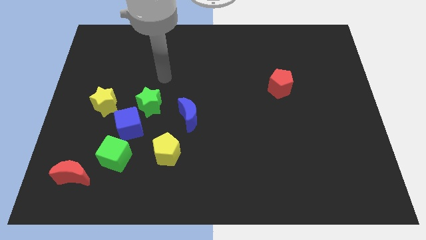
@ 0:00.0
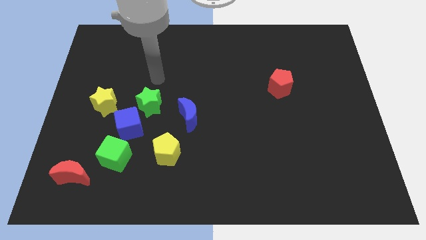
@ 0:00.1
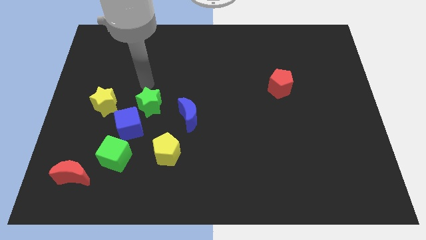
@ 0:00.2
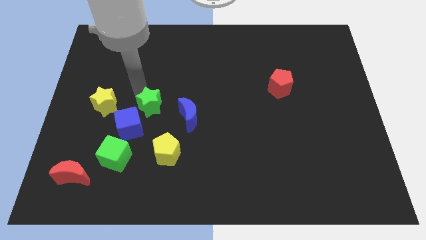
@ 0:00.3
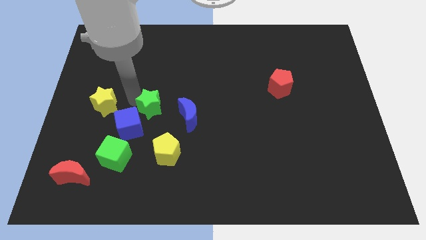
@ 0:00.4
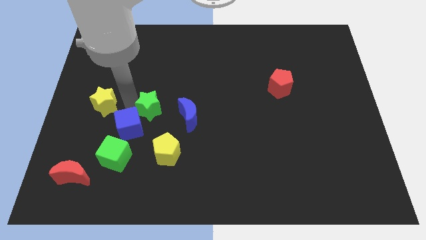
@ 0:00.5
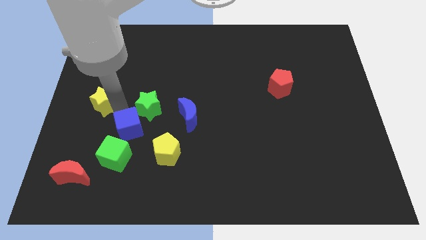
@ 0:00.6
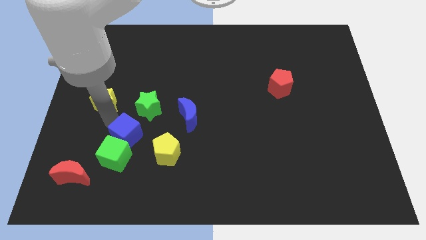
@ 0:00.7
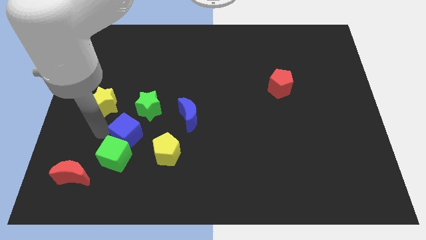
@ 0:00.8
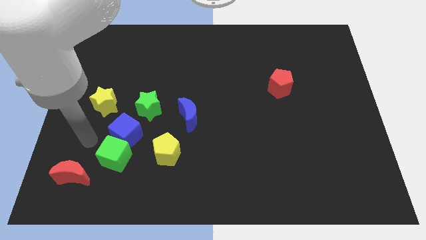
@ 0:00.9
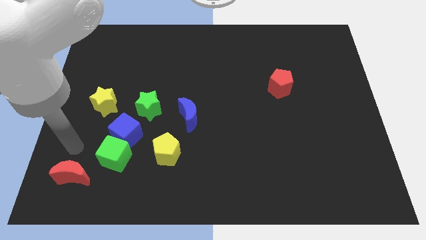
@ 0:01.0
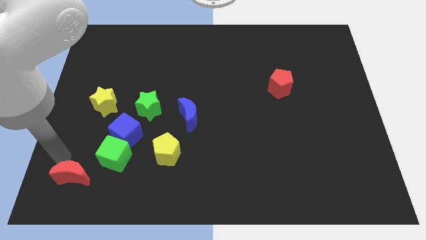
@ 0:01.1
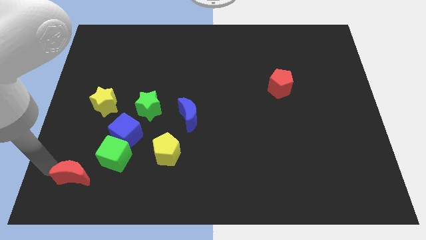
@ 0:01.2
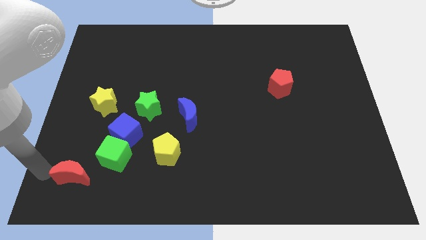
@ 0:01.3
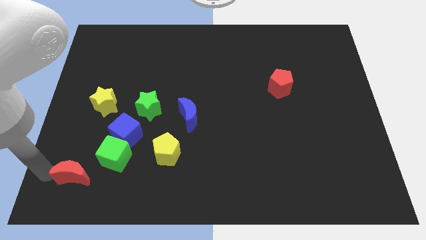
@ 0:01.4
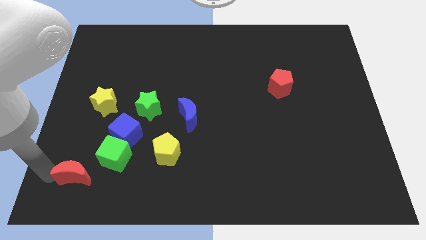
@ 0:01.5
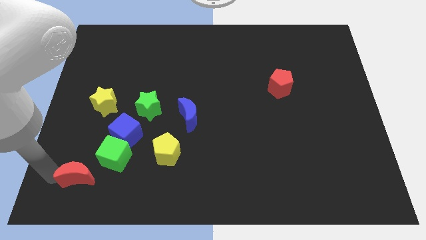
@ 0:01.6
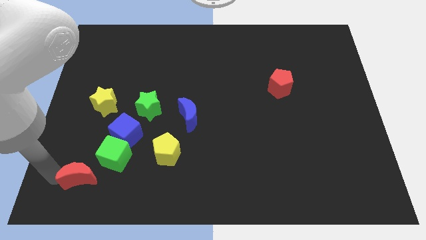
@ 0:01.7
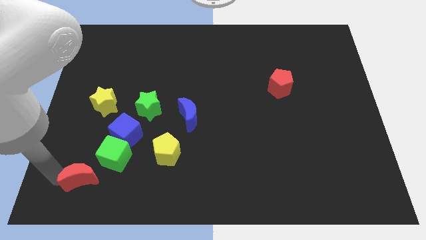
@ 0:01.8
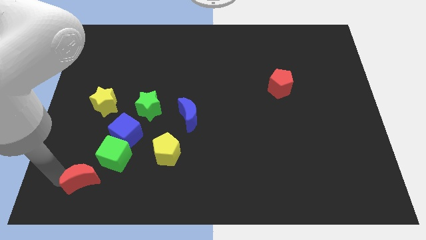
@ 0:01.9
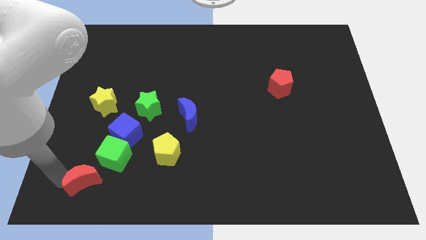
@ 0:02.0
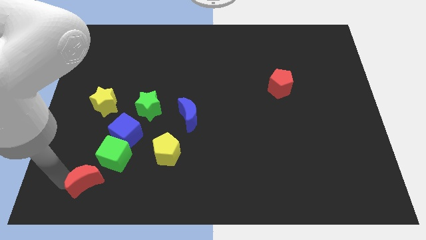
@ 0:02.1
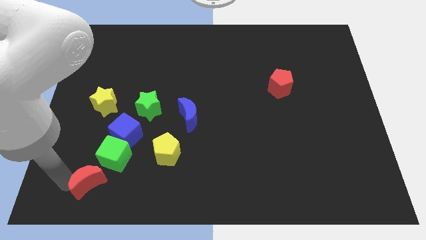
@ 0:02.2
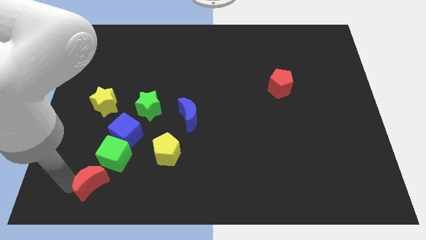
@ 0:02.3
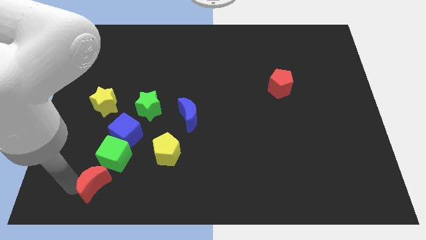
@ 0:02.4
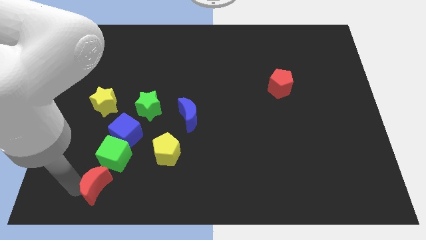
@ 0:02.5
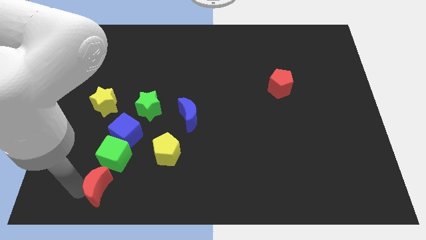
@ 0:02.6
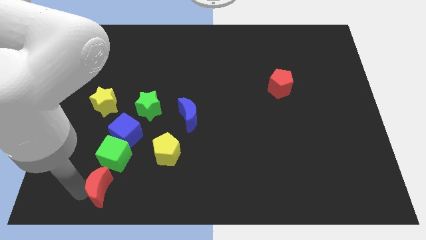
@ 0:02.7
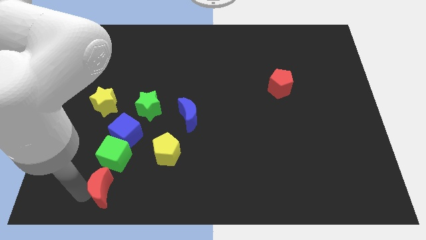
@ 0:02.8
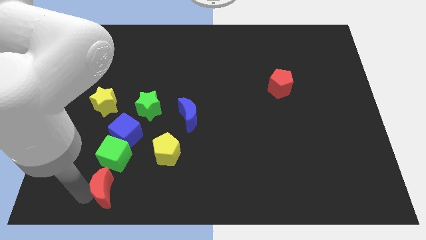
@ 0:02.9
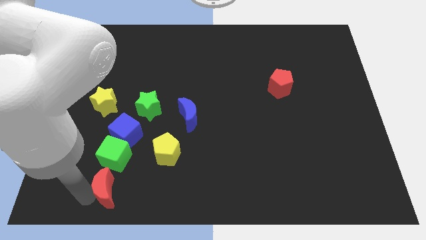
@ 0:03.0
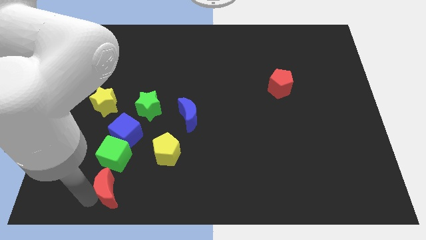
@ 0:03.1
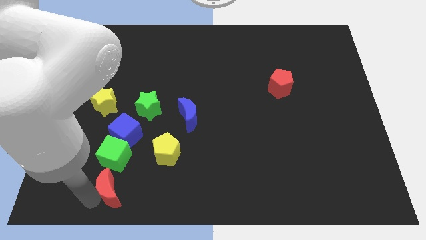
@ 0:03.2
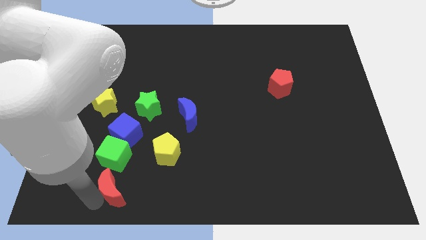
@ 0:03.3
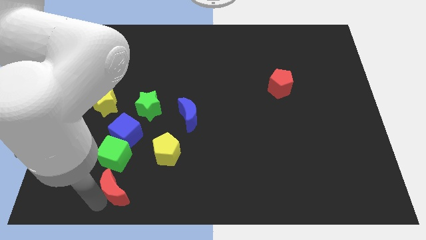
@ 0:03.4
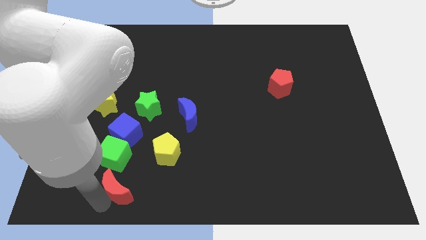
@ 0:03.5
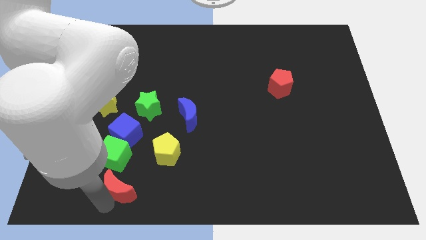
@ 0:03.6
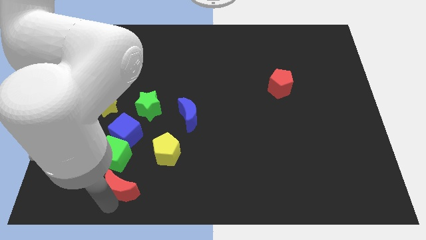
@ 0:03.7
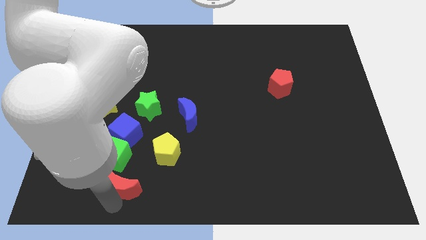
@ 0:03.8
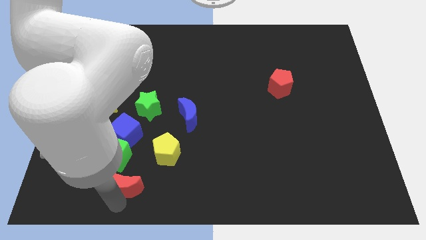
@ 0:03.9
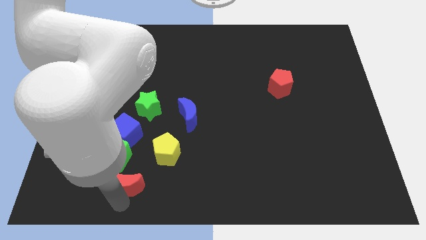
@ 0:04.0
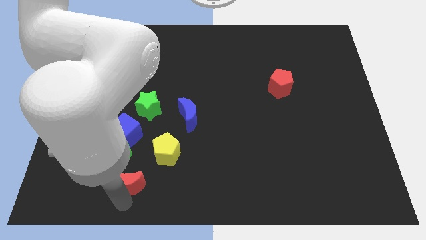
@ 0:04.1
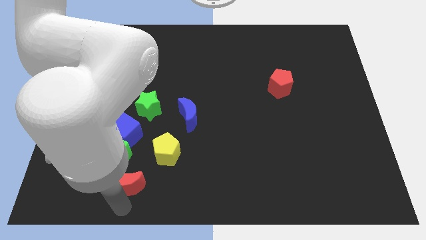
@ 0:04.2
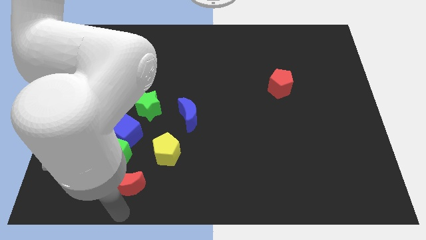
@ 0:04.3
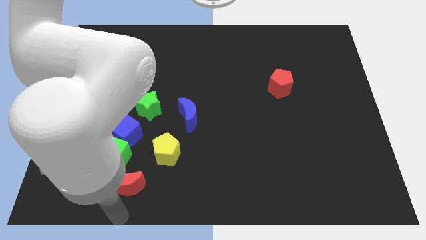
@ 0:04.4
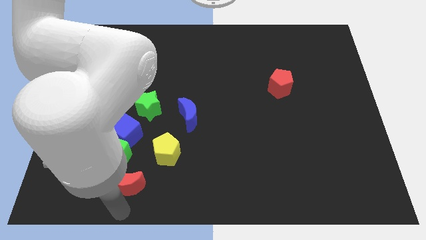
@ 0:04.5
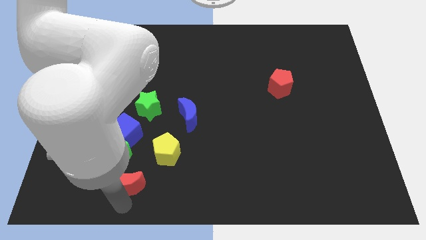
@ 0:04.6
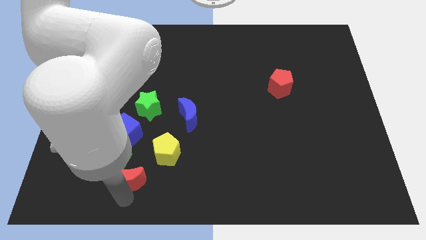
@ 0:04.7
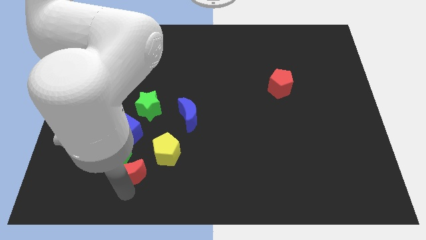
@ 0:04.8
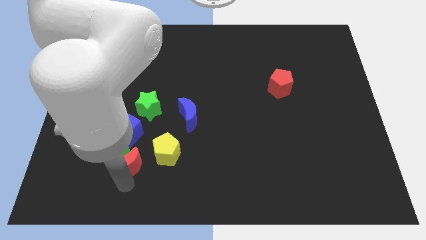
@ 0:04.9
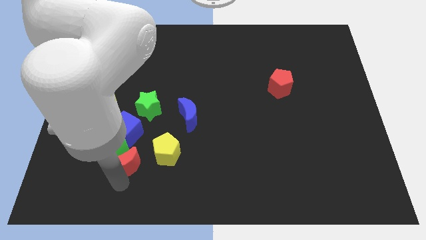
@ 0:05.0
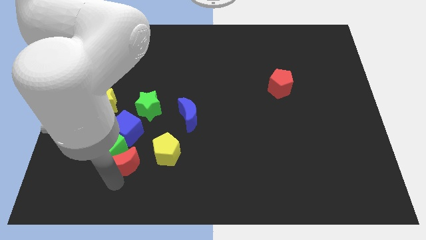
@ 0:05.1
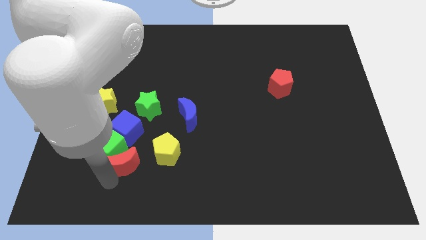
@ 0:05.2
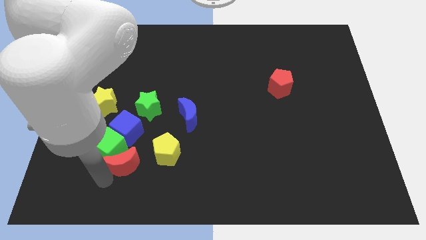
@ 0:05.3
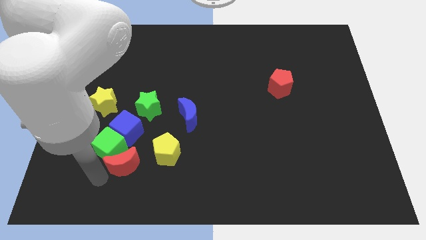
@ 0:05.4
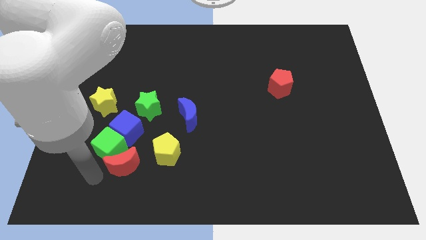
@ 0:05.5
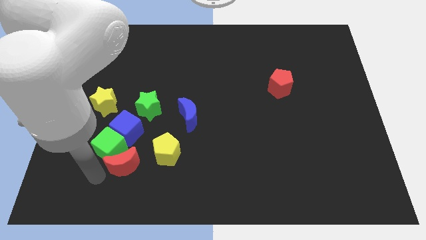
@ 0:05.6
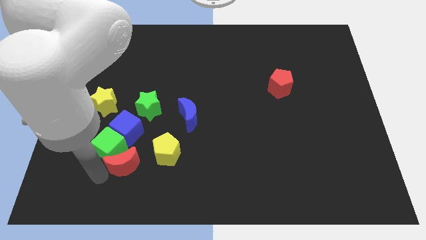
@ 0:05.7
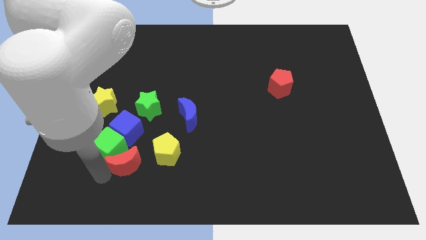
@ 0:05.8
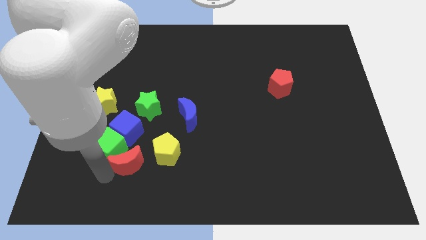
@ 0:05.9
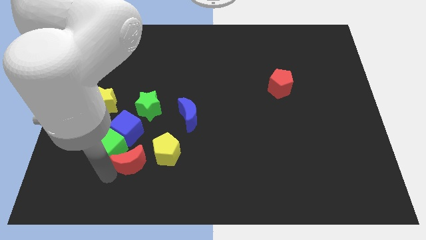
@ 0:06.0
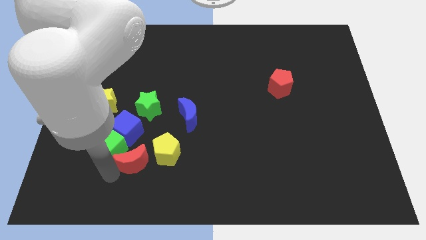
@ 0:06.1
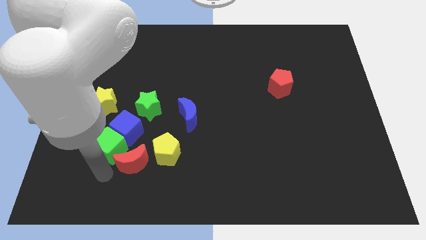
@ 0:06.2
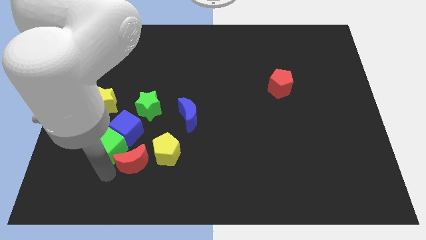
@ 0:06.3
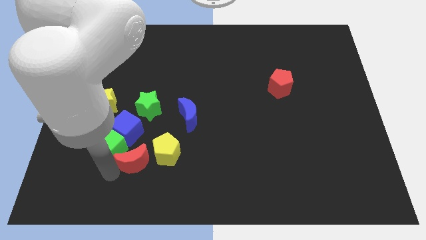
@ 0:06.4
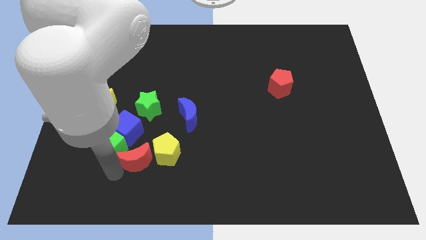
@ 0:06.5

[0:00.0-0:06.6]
push the red moon towards the yellow pentagon

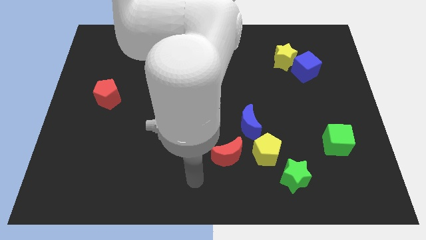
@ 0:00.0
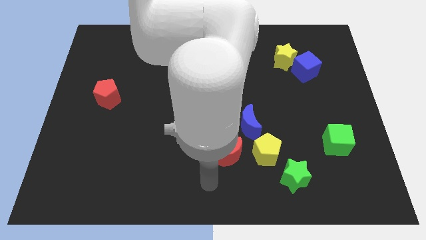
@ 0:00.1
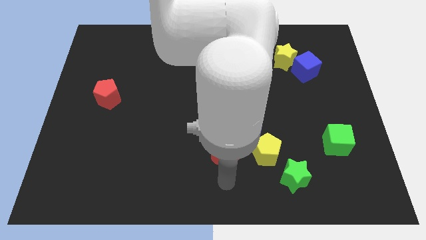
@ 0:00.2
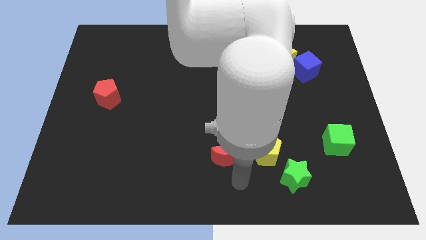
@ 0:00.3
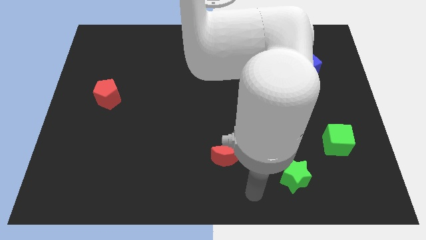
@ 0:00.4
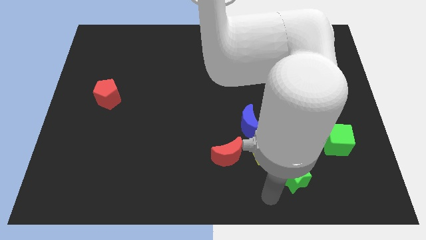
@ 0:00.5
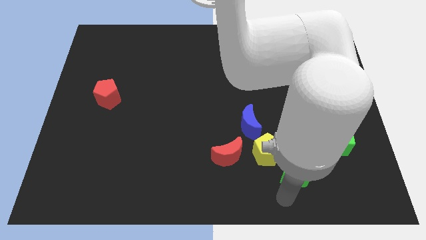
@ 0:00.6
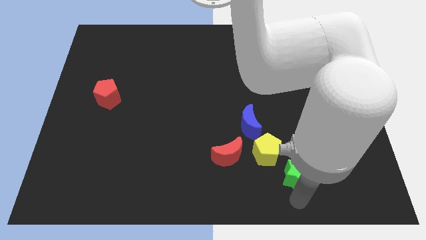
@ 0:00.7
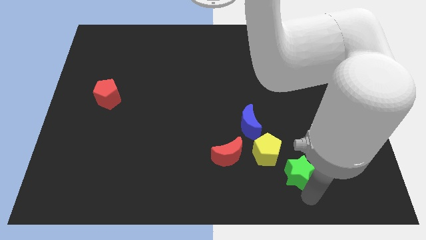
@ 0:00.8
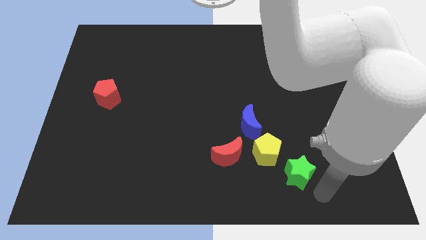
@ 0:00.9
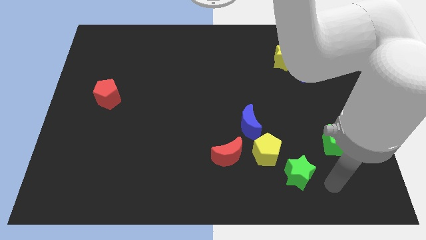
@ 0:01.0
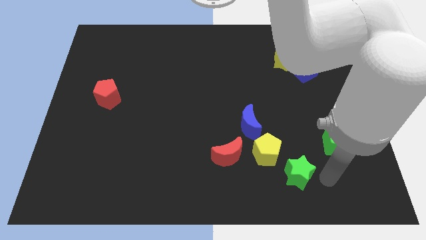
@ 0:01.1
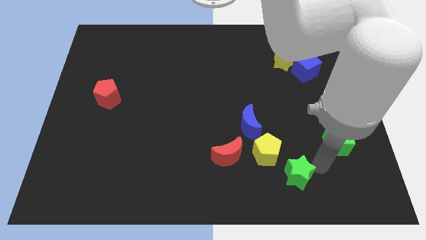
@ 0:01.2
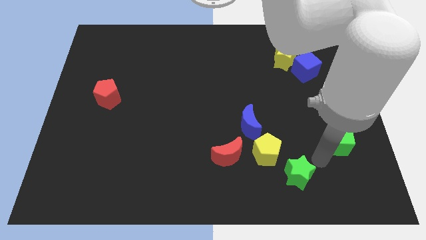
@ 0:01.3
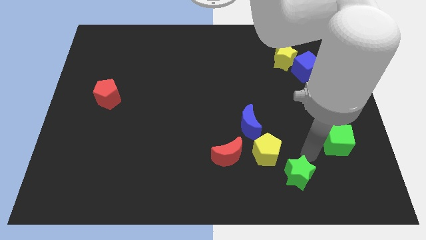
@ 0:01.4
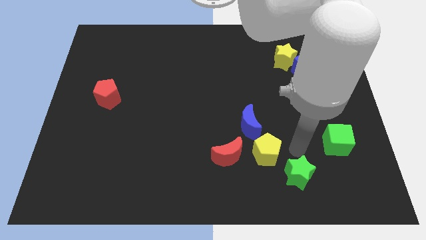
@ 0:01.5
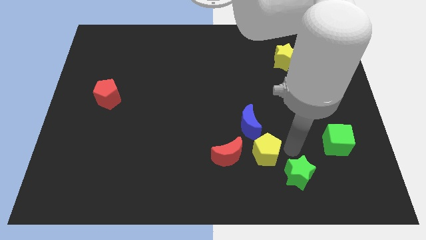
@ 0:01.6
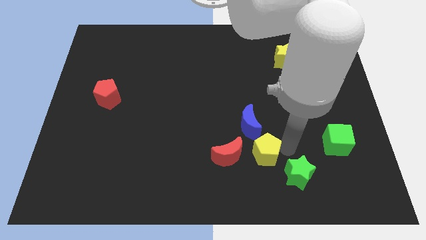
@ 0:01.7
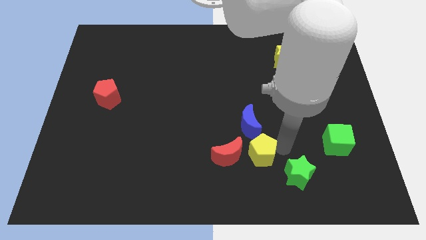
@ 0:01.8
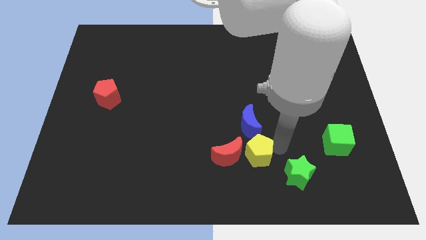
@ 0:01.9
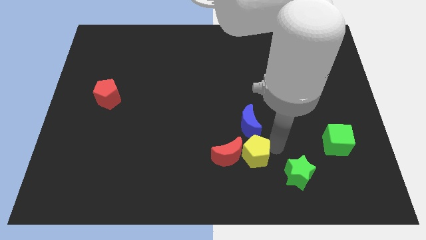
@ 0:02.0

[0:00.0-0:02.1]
push the yellow pentagon to the red moon
